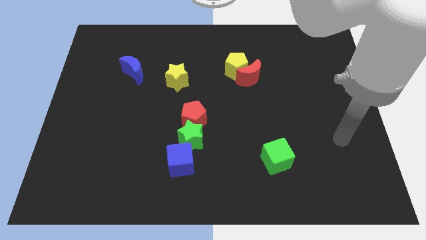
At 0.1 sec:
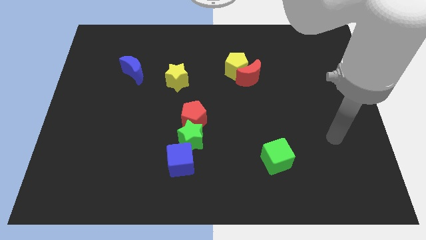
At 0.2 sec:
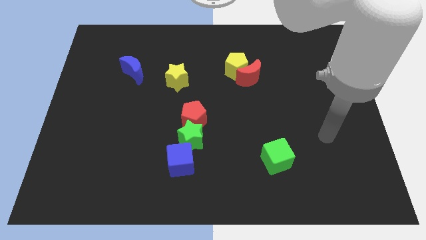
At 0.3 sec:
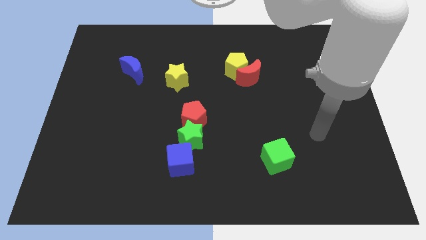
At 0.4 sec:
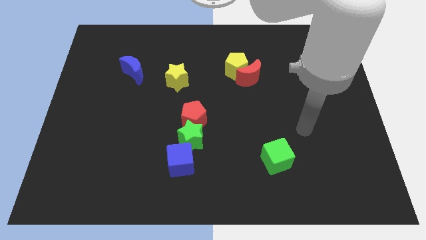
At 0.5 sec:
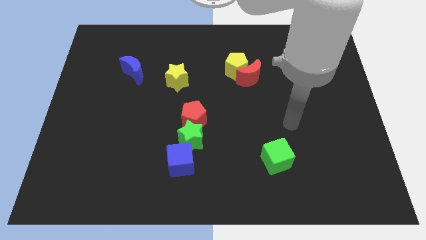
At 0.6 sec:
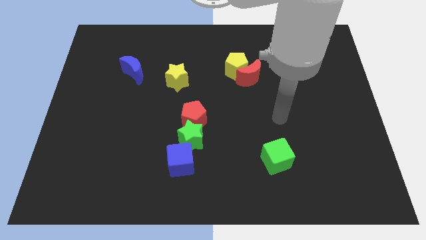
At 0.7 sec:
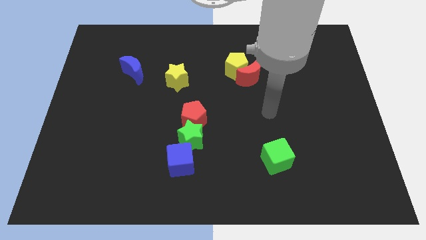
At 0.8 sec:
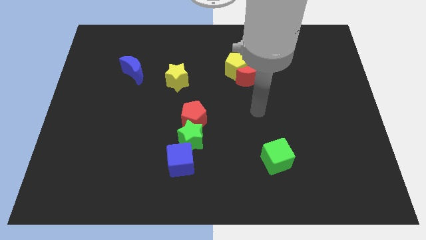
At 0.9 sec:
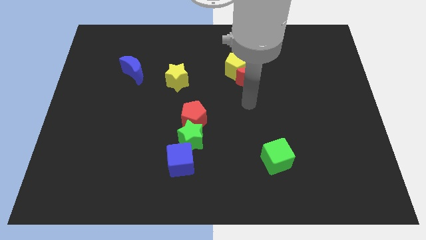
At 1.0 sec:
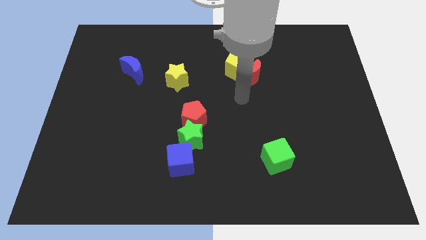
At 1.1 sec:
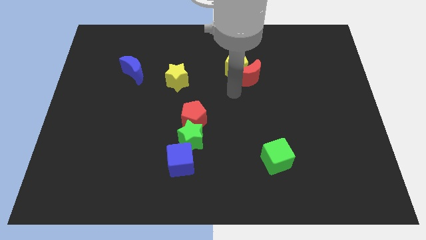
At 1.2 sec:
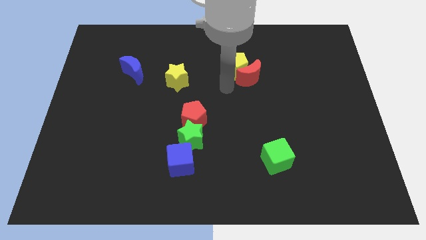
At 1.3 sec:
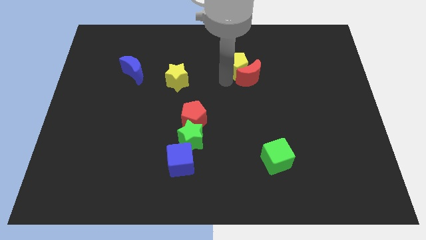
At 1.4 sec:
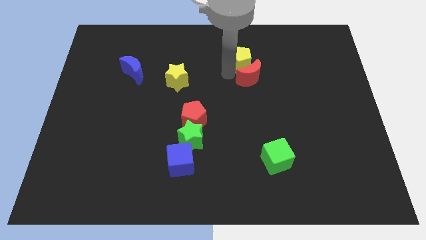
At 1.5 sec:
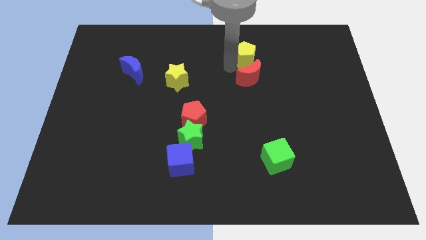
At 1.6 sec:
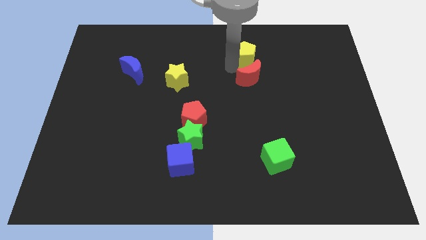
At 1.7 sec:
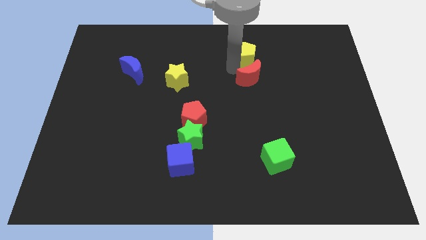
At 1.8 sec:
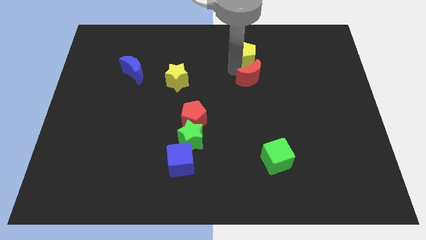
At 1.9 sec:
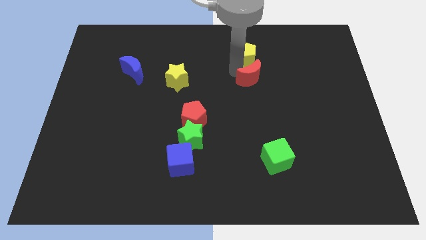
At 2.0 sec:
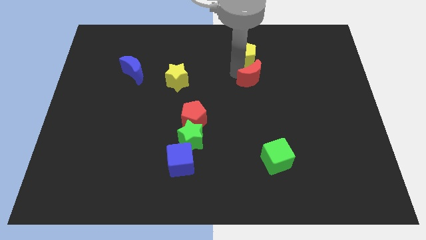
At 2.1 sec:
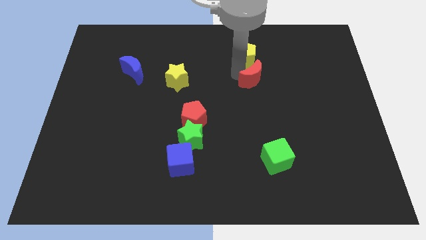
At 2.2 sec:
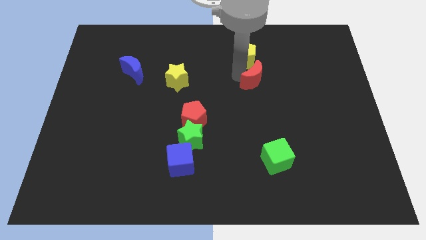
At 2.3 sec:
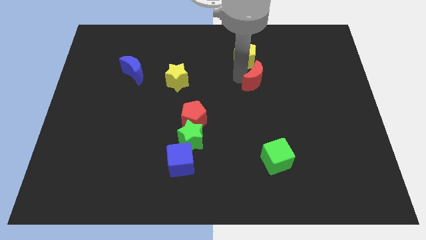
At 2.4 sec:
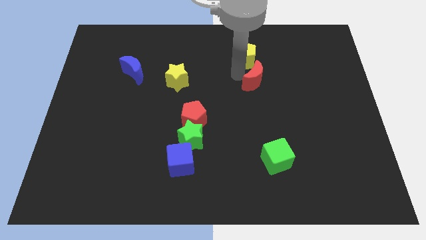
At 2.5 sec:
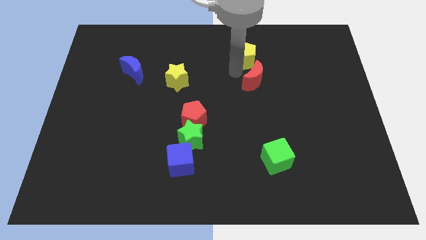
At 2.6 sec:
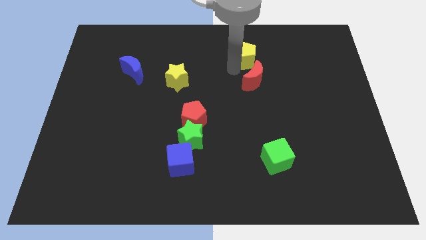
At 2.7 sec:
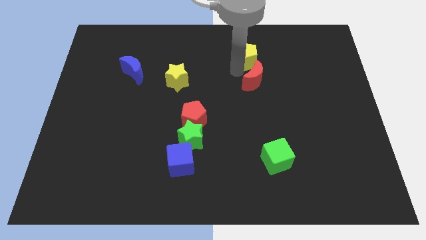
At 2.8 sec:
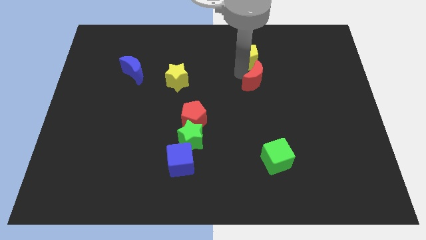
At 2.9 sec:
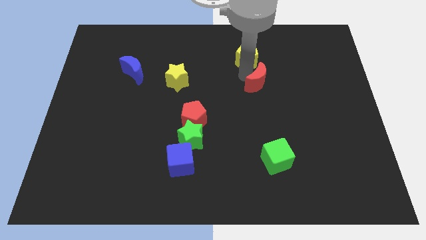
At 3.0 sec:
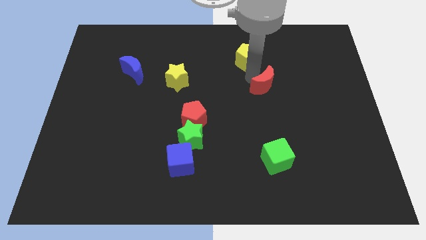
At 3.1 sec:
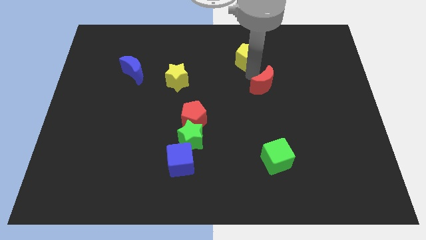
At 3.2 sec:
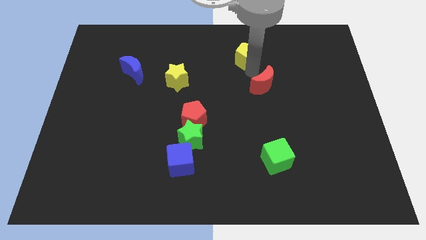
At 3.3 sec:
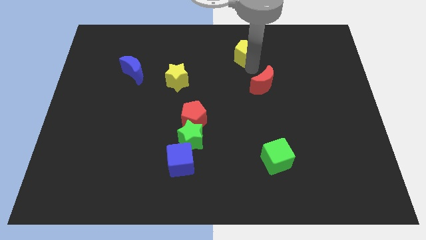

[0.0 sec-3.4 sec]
move the red moon away from the yellow pentagon

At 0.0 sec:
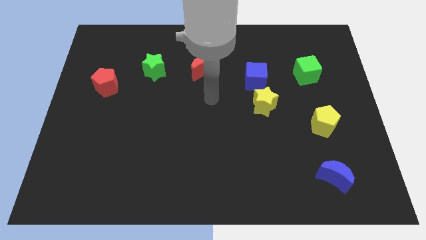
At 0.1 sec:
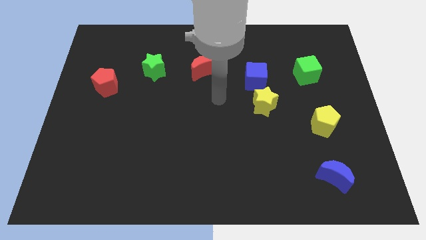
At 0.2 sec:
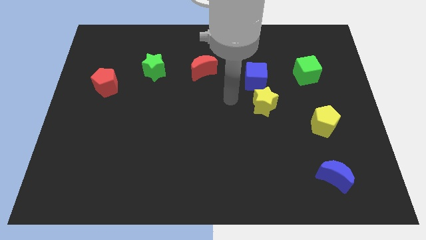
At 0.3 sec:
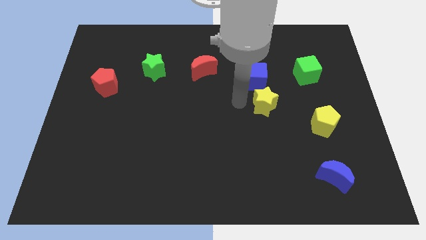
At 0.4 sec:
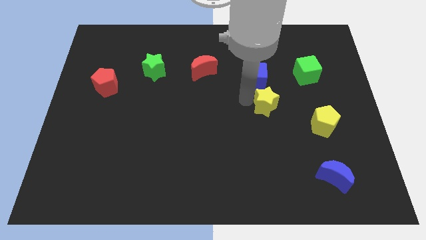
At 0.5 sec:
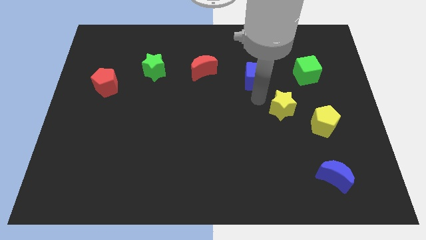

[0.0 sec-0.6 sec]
pull the blue cube apart from the yellow star

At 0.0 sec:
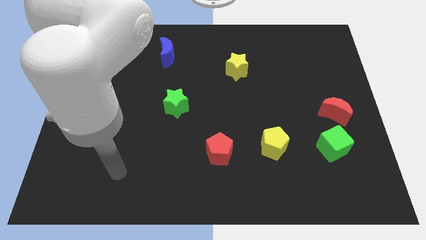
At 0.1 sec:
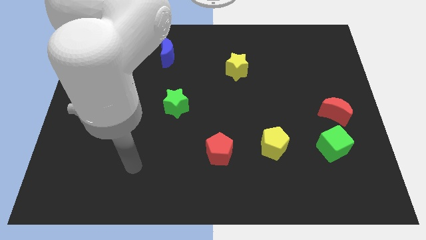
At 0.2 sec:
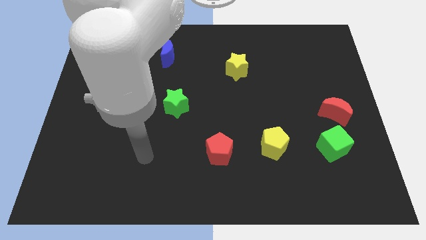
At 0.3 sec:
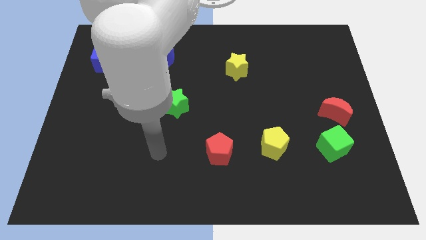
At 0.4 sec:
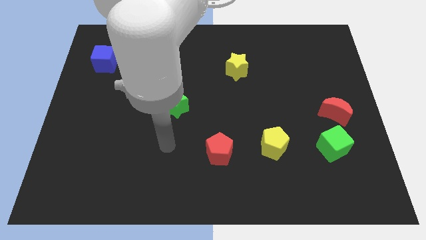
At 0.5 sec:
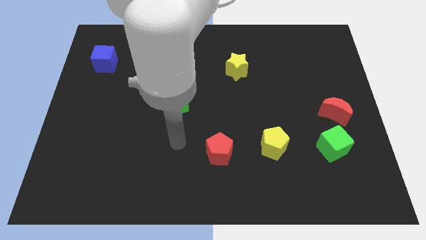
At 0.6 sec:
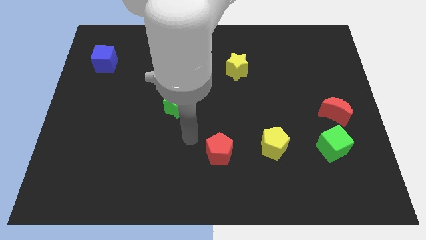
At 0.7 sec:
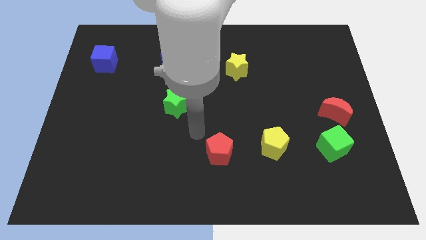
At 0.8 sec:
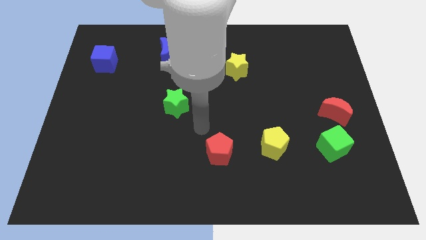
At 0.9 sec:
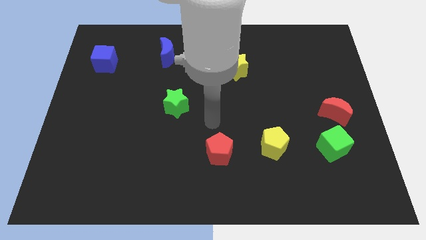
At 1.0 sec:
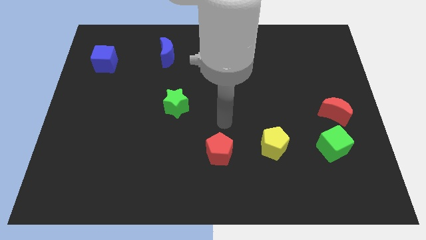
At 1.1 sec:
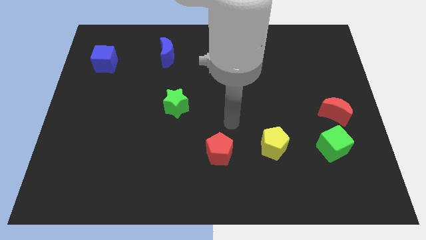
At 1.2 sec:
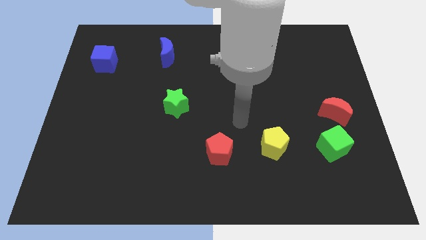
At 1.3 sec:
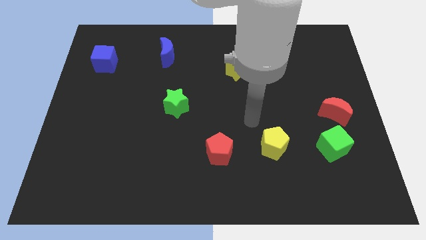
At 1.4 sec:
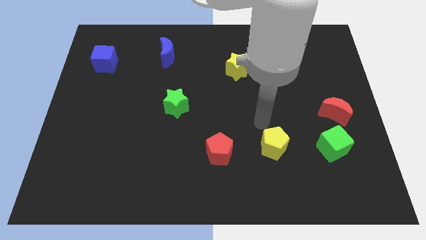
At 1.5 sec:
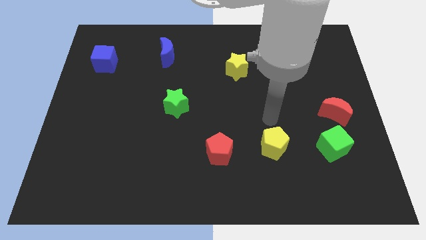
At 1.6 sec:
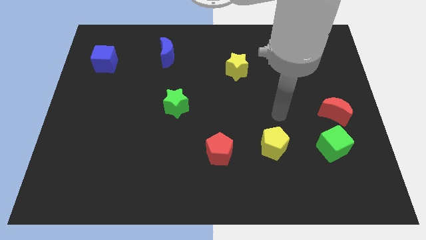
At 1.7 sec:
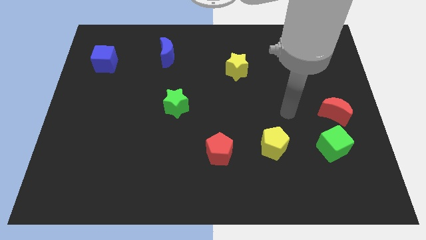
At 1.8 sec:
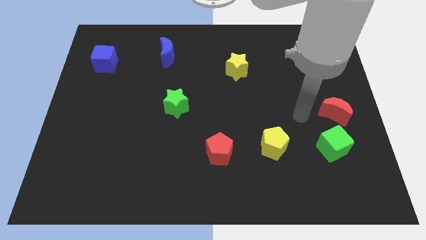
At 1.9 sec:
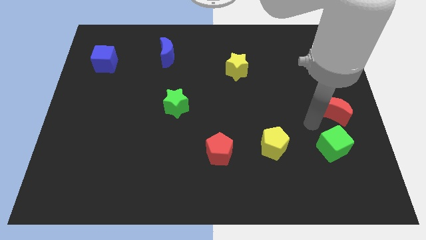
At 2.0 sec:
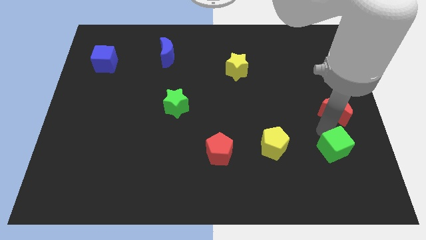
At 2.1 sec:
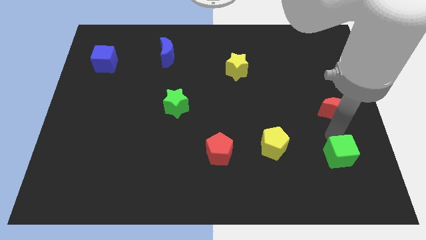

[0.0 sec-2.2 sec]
move the red moon away from the green cube

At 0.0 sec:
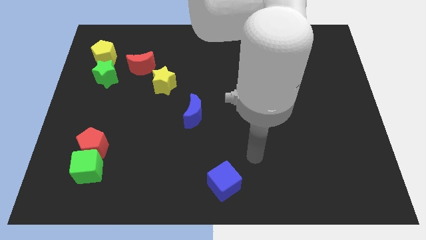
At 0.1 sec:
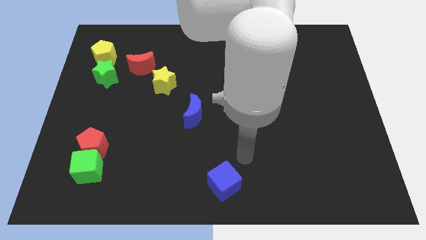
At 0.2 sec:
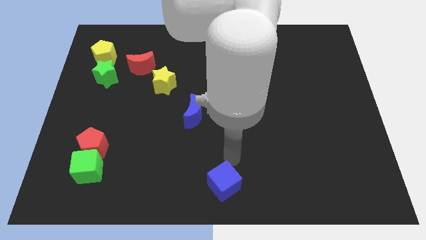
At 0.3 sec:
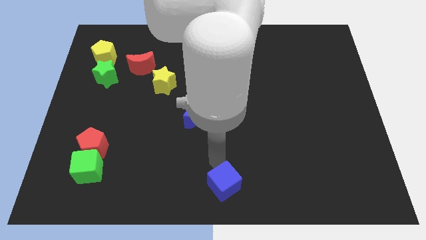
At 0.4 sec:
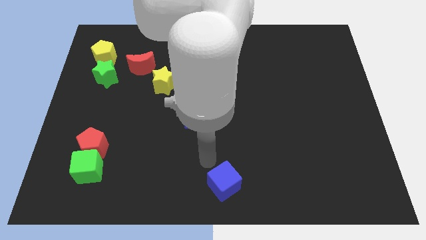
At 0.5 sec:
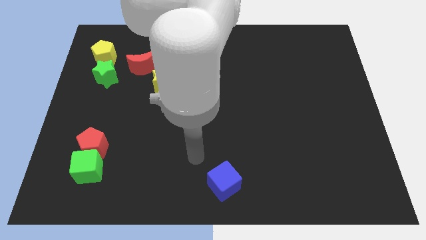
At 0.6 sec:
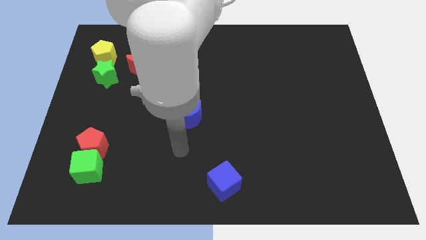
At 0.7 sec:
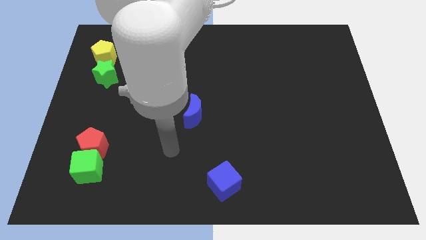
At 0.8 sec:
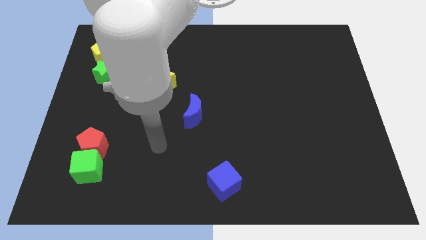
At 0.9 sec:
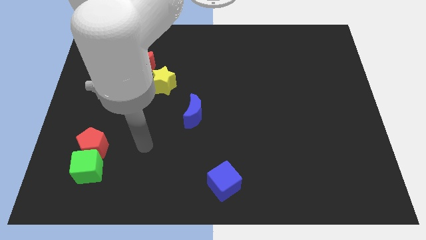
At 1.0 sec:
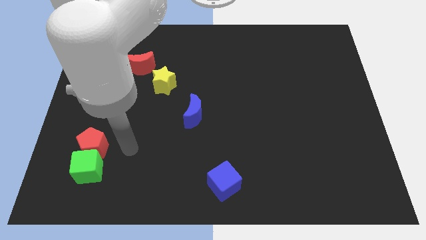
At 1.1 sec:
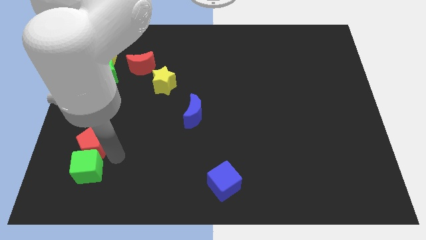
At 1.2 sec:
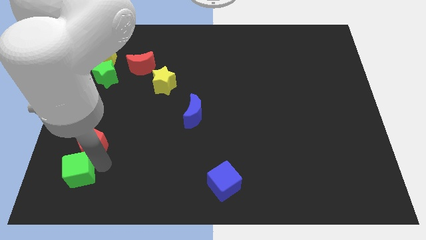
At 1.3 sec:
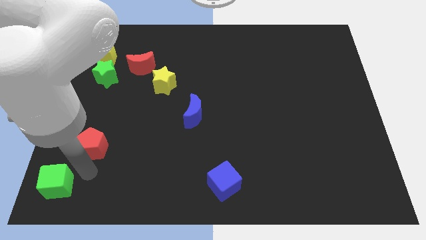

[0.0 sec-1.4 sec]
pull the red pentagon apart from the green cube

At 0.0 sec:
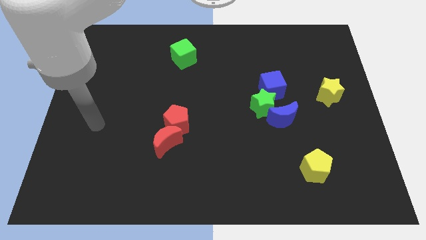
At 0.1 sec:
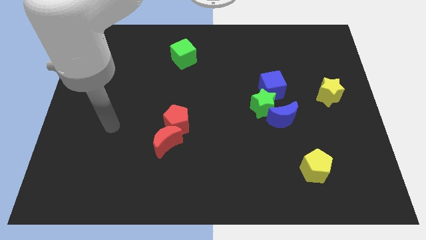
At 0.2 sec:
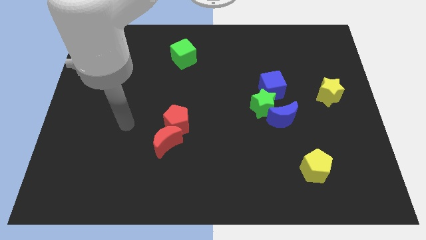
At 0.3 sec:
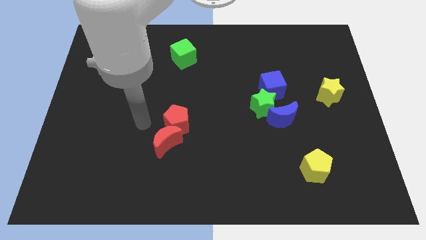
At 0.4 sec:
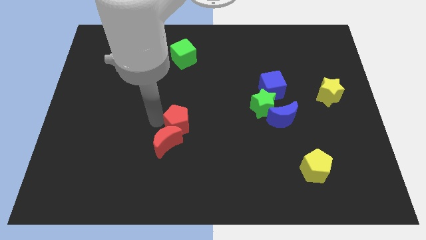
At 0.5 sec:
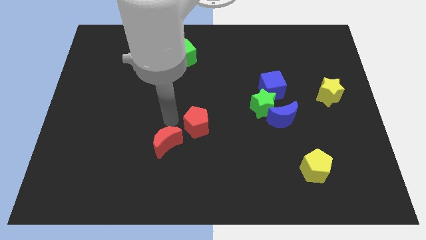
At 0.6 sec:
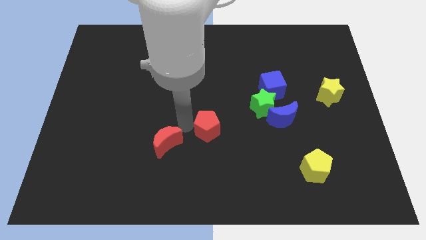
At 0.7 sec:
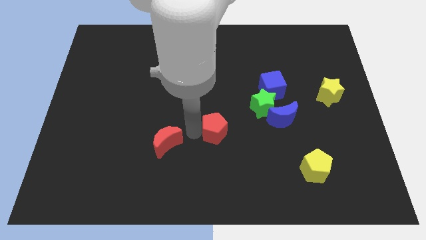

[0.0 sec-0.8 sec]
move the red moon away from the red pentagon

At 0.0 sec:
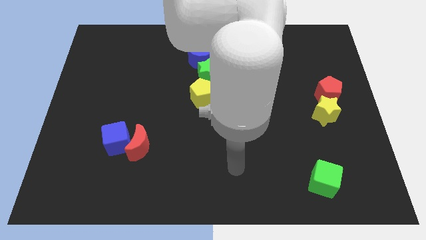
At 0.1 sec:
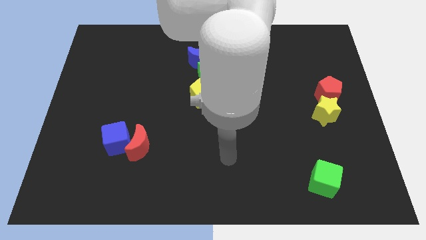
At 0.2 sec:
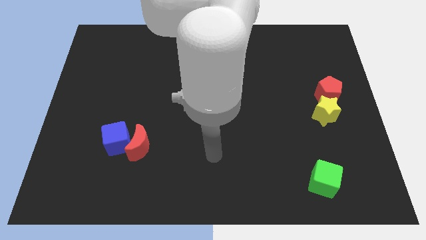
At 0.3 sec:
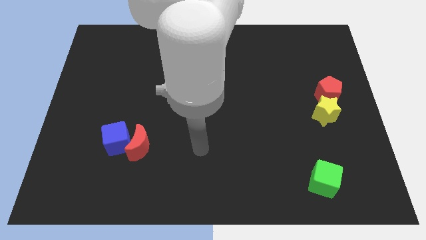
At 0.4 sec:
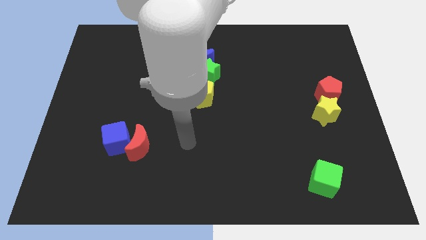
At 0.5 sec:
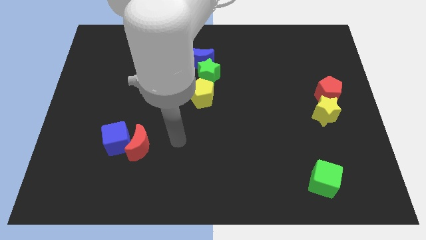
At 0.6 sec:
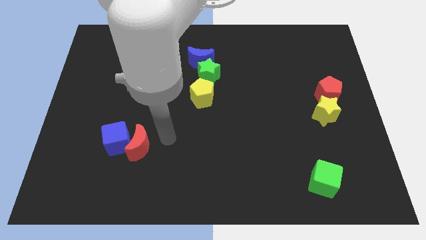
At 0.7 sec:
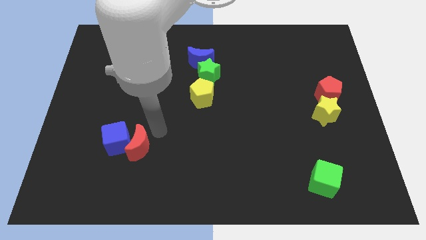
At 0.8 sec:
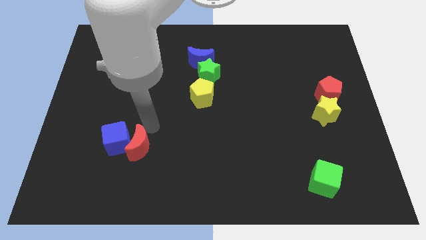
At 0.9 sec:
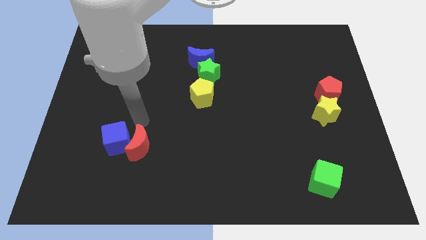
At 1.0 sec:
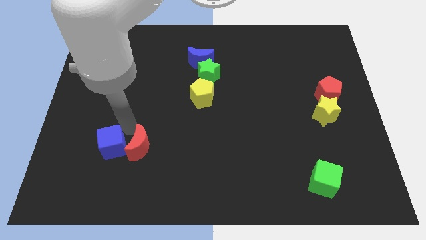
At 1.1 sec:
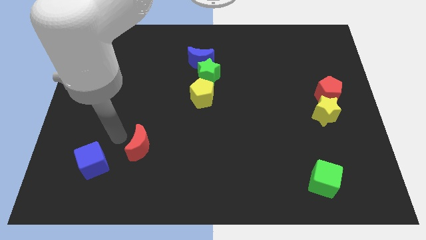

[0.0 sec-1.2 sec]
separate the red moon from the blue cube
